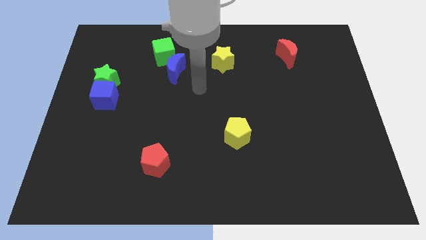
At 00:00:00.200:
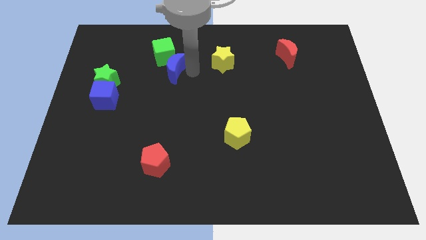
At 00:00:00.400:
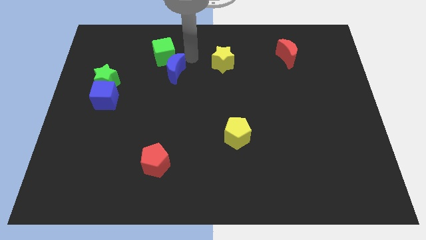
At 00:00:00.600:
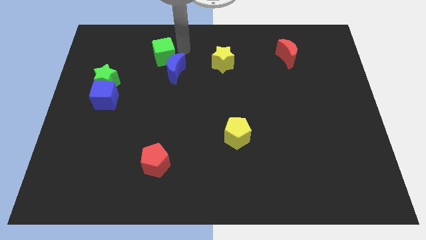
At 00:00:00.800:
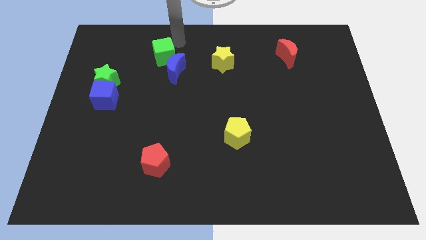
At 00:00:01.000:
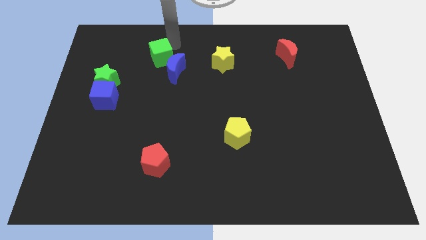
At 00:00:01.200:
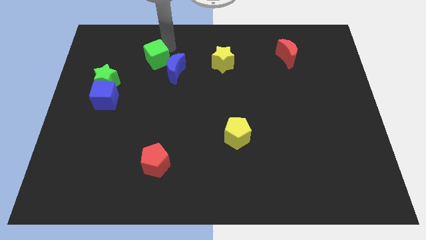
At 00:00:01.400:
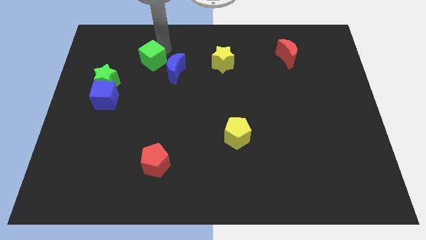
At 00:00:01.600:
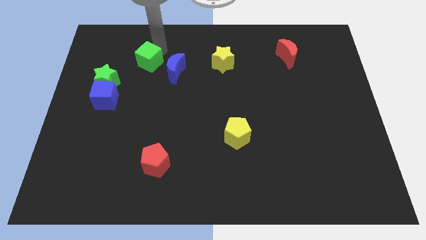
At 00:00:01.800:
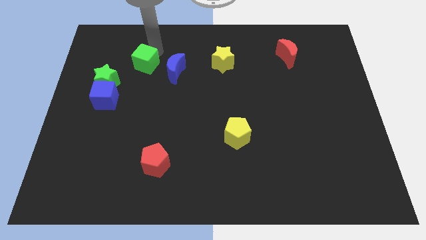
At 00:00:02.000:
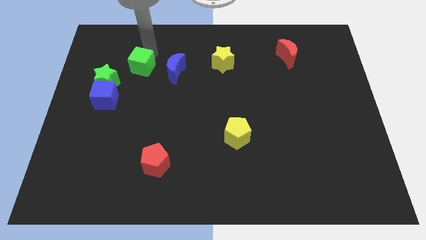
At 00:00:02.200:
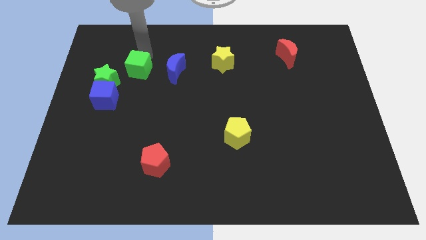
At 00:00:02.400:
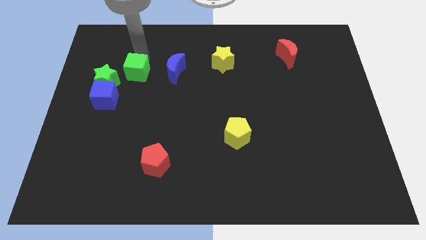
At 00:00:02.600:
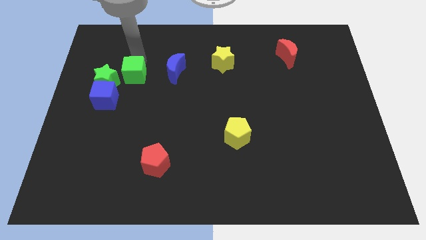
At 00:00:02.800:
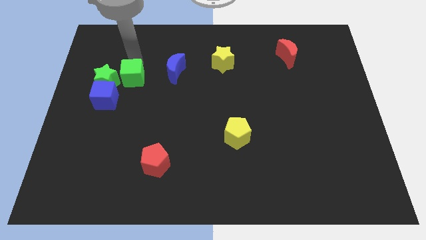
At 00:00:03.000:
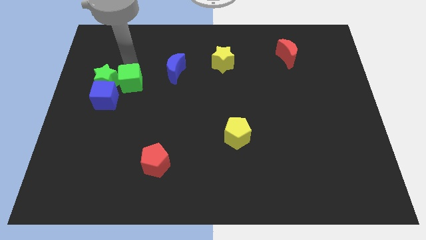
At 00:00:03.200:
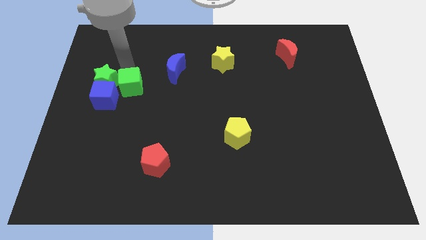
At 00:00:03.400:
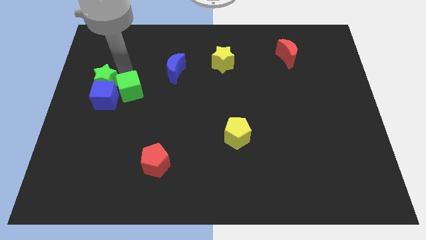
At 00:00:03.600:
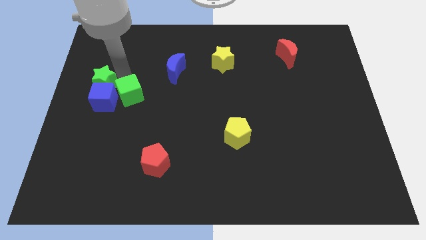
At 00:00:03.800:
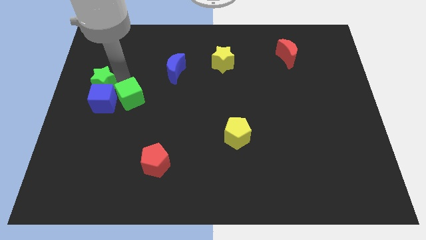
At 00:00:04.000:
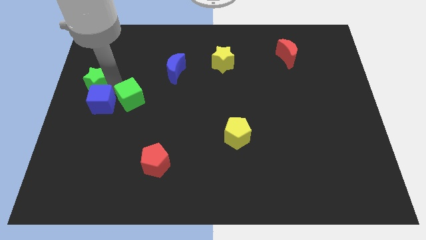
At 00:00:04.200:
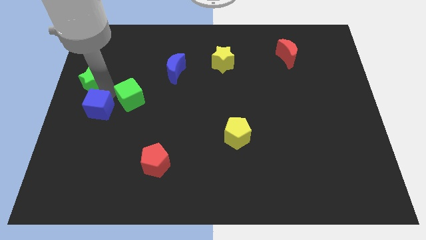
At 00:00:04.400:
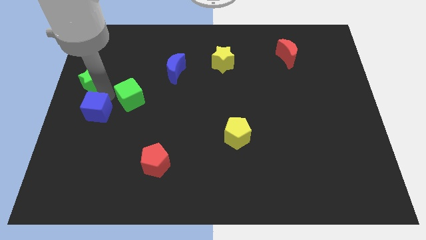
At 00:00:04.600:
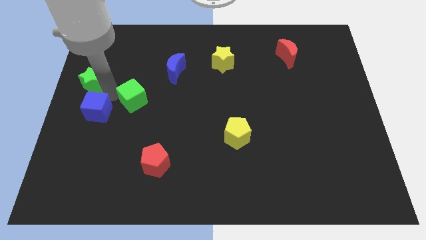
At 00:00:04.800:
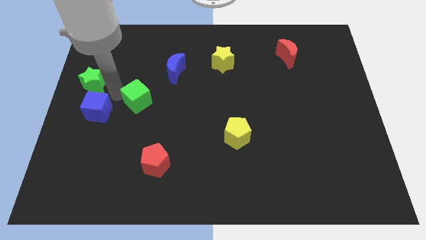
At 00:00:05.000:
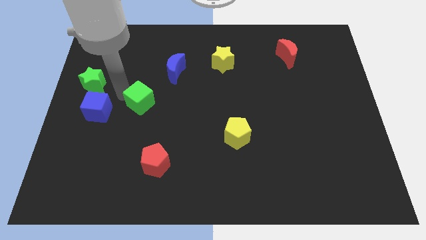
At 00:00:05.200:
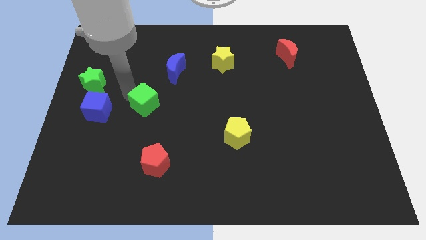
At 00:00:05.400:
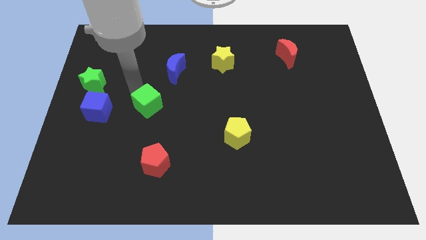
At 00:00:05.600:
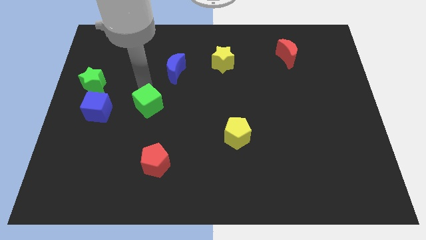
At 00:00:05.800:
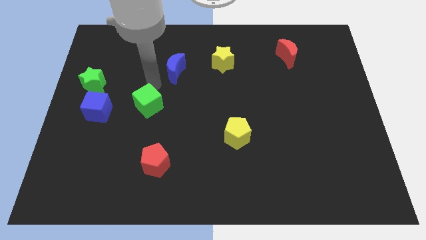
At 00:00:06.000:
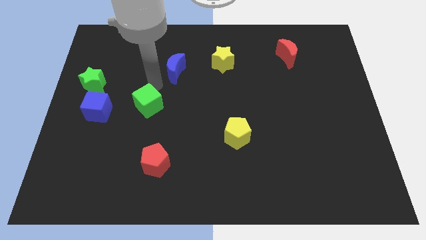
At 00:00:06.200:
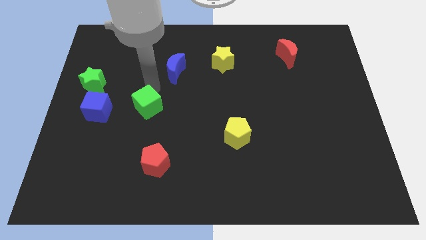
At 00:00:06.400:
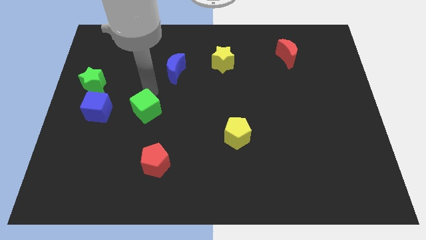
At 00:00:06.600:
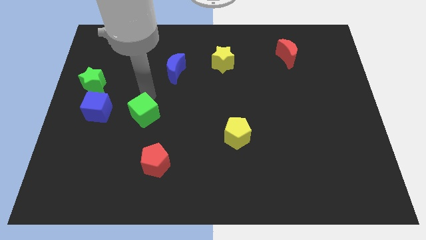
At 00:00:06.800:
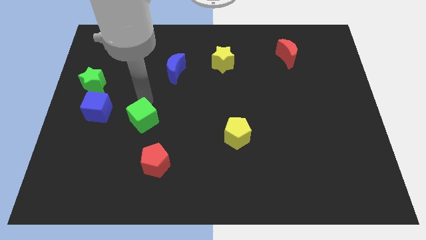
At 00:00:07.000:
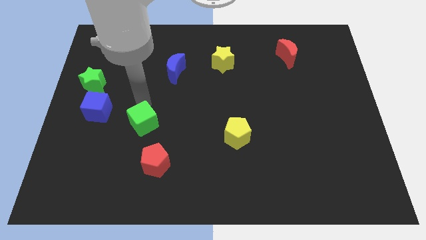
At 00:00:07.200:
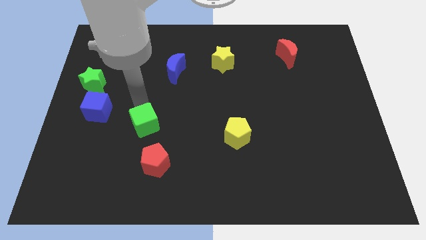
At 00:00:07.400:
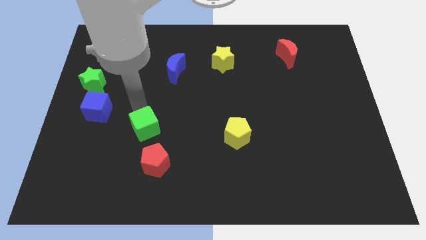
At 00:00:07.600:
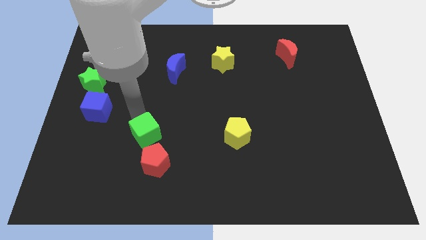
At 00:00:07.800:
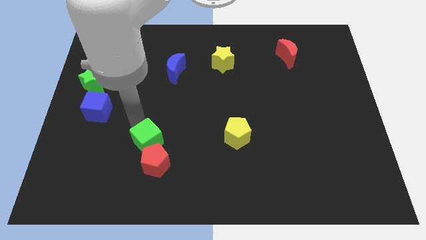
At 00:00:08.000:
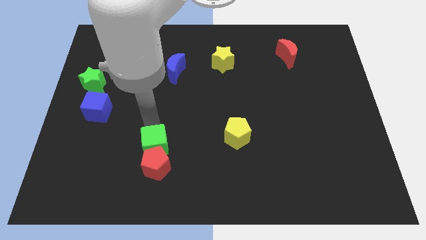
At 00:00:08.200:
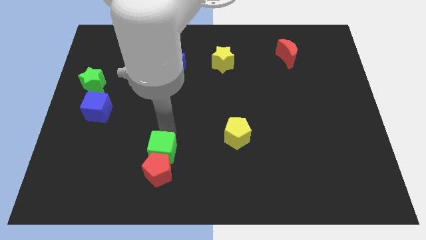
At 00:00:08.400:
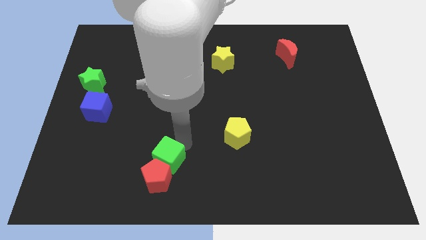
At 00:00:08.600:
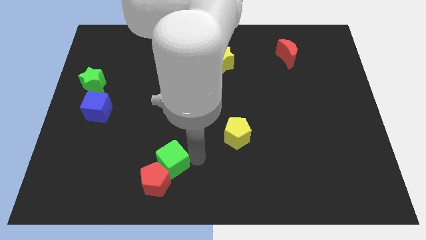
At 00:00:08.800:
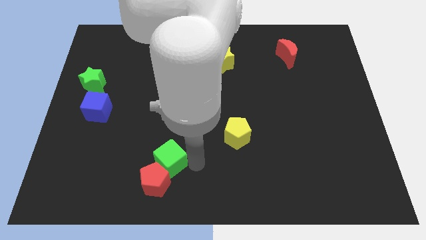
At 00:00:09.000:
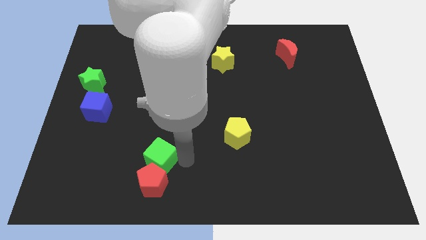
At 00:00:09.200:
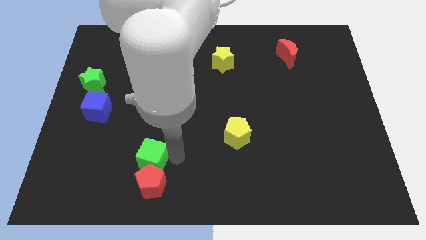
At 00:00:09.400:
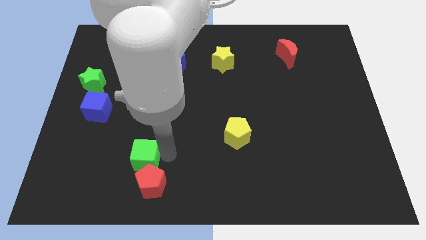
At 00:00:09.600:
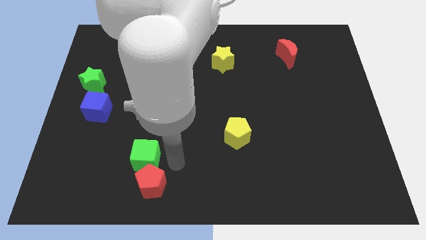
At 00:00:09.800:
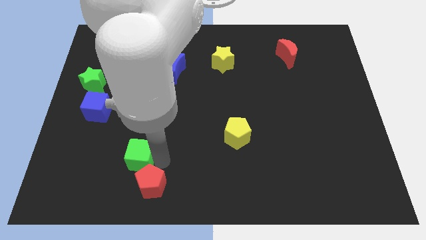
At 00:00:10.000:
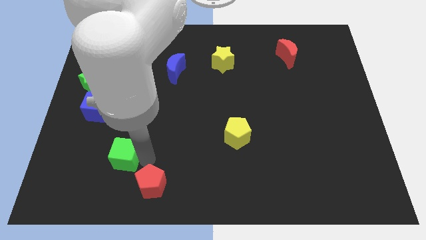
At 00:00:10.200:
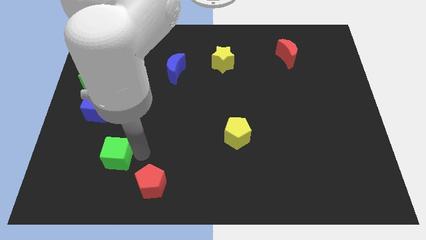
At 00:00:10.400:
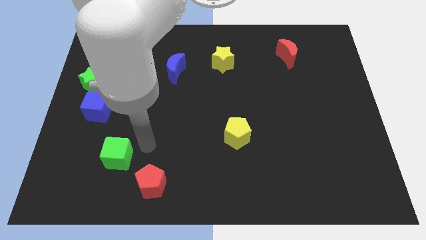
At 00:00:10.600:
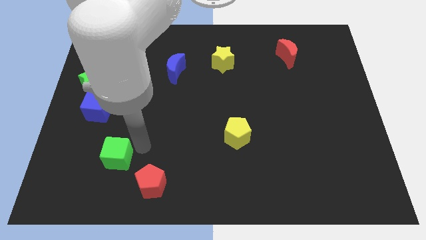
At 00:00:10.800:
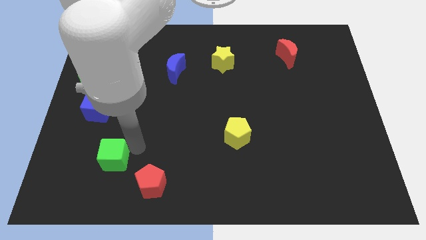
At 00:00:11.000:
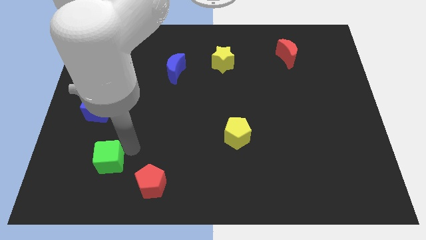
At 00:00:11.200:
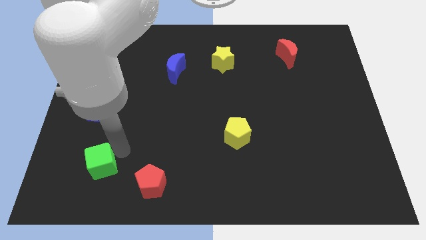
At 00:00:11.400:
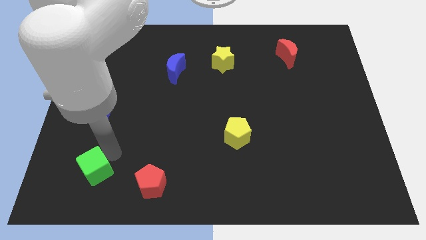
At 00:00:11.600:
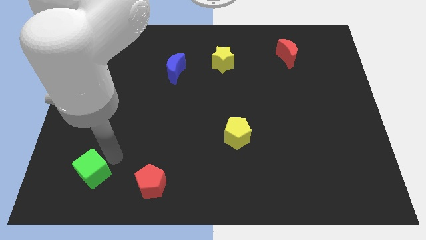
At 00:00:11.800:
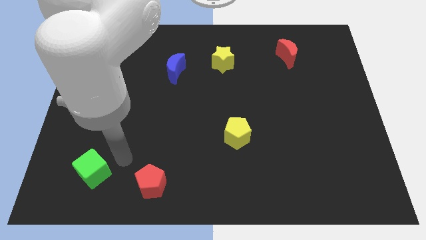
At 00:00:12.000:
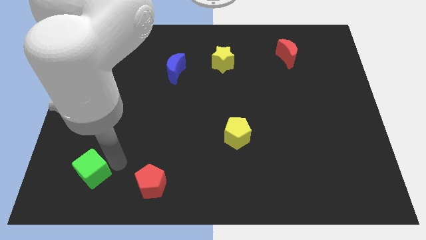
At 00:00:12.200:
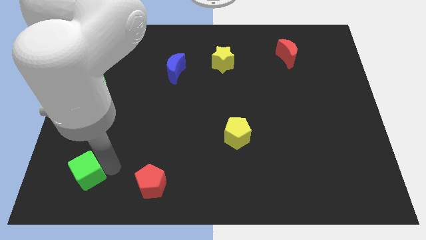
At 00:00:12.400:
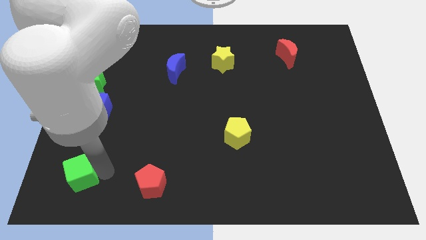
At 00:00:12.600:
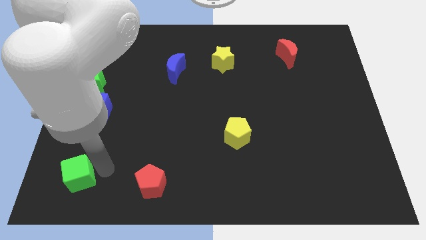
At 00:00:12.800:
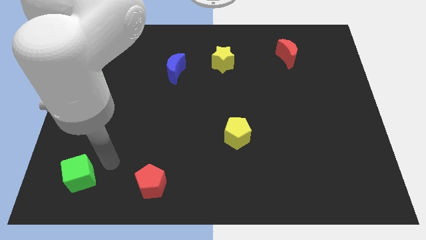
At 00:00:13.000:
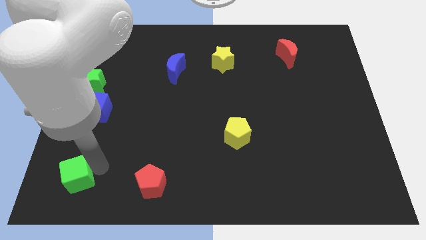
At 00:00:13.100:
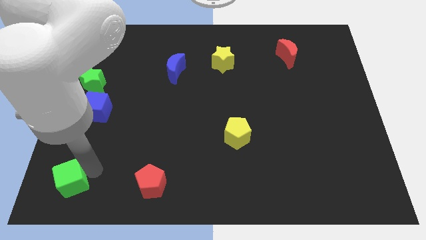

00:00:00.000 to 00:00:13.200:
put the green cube to the bottom left
